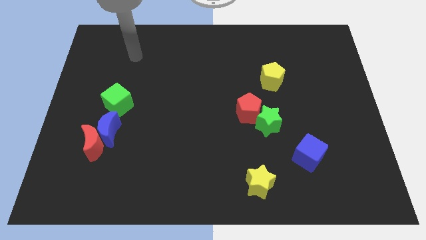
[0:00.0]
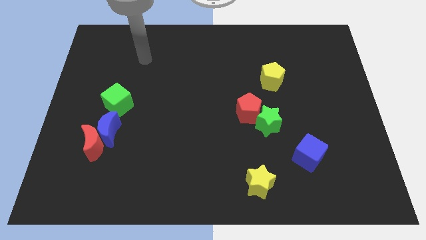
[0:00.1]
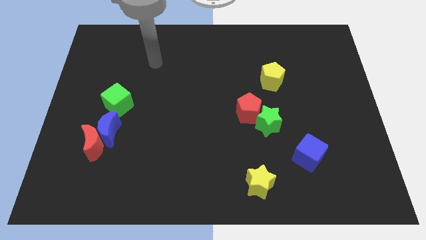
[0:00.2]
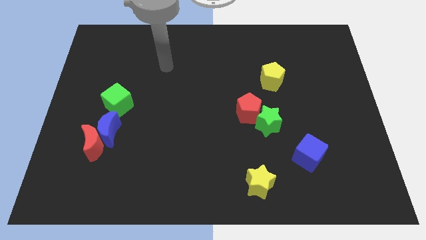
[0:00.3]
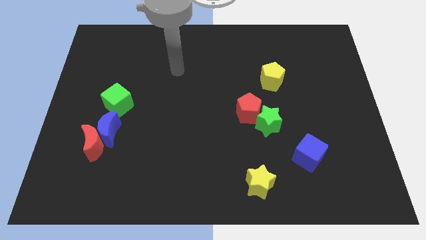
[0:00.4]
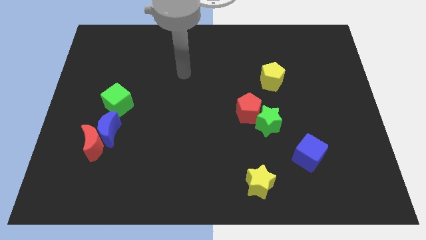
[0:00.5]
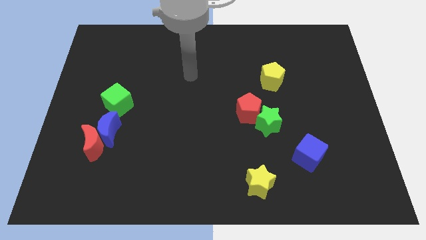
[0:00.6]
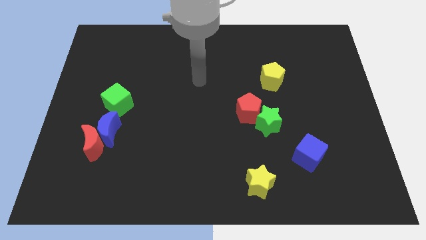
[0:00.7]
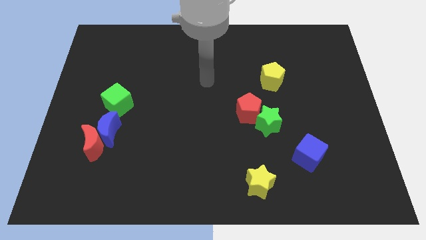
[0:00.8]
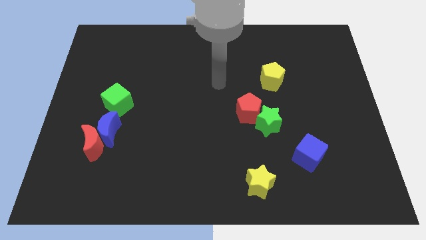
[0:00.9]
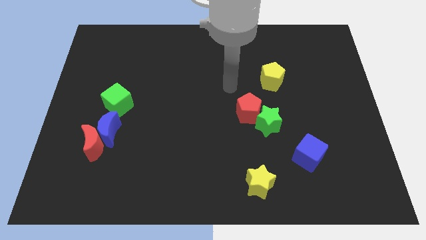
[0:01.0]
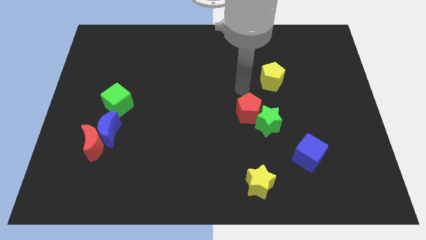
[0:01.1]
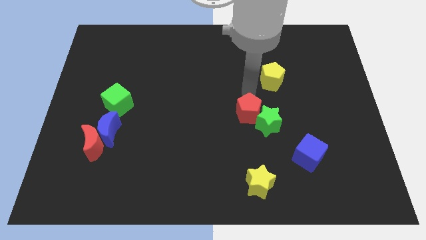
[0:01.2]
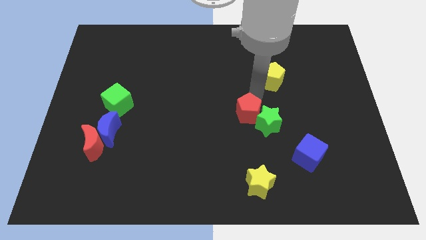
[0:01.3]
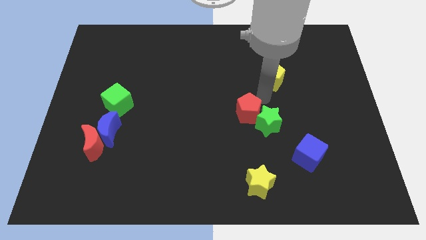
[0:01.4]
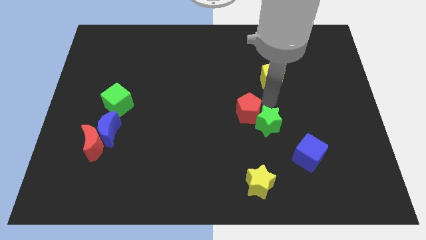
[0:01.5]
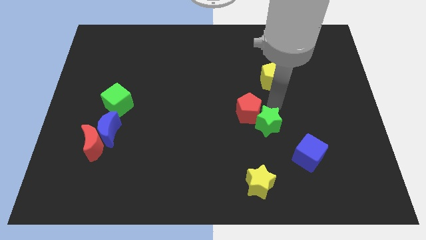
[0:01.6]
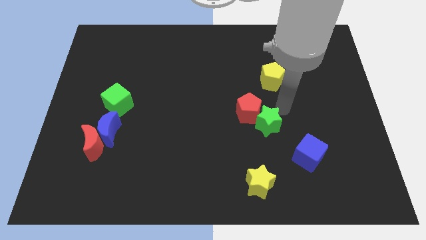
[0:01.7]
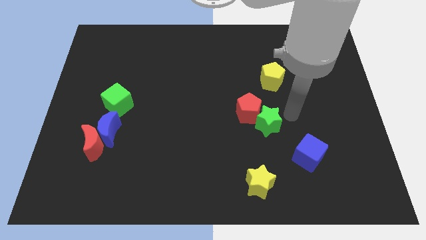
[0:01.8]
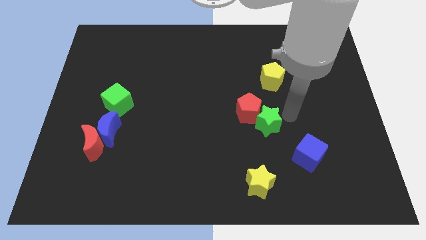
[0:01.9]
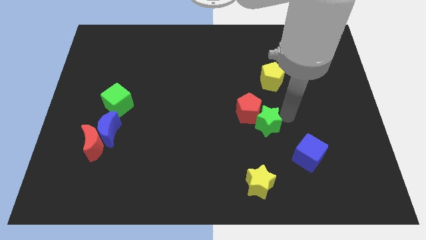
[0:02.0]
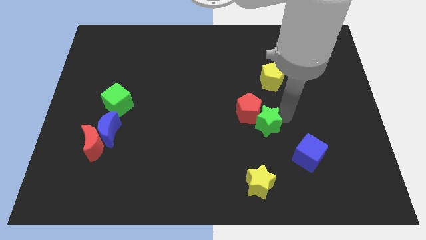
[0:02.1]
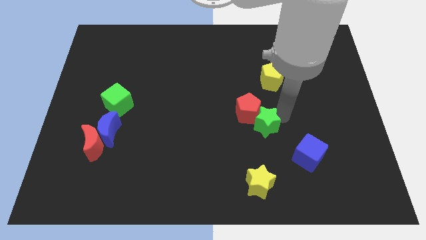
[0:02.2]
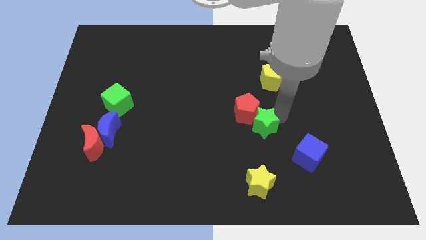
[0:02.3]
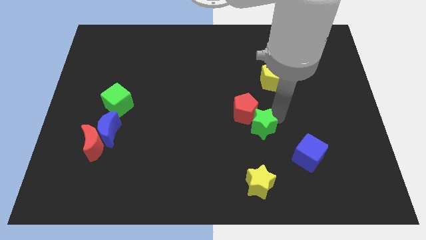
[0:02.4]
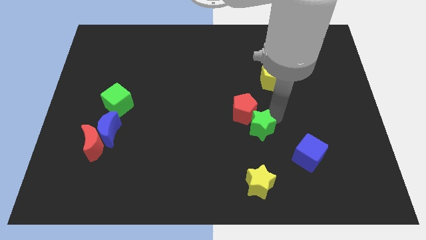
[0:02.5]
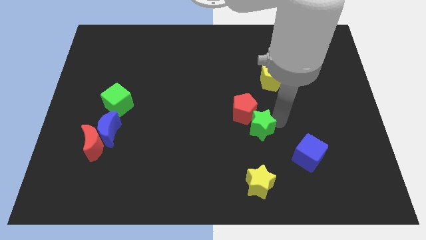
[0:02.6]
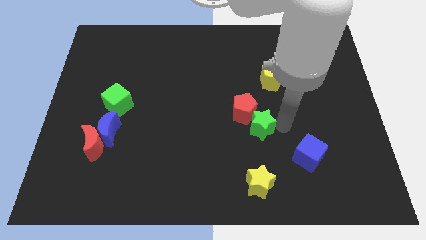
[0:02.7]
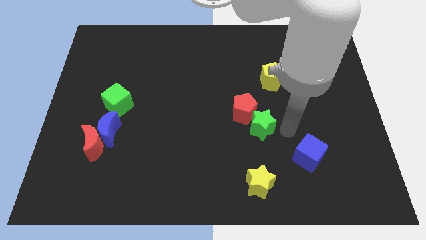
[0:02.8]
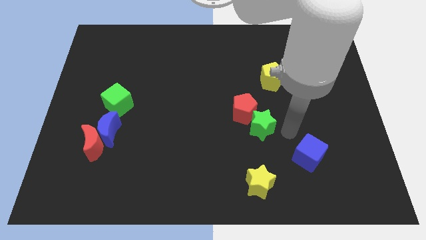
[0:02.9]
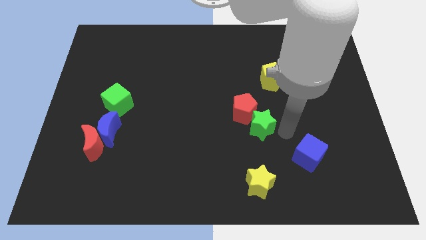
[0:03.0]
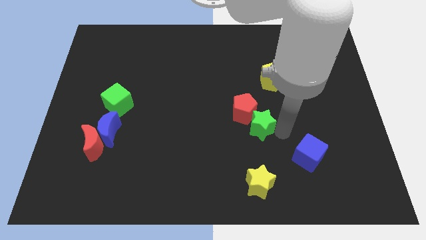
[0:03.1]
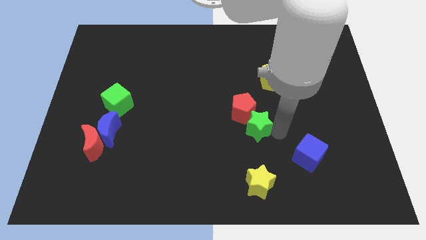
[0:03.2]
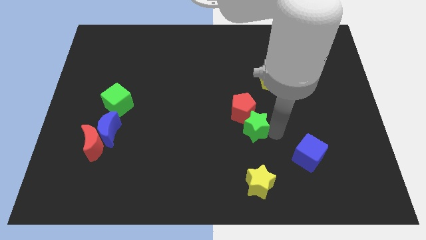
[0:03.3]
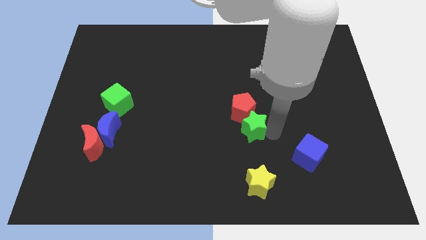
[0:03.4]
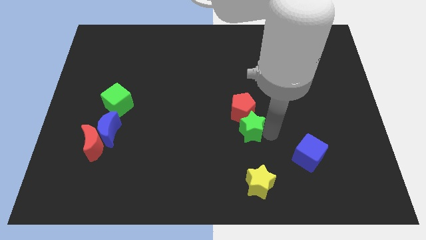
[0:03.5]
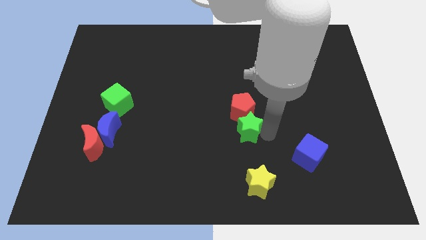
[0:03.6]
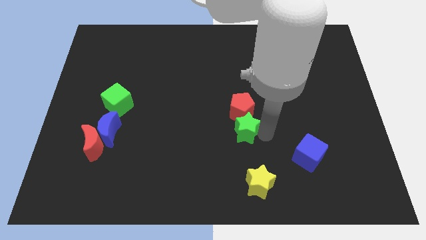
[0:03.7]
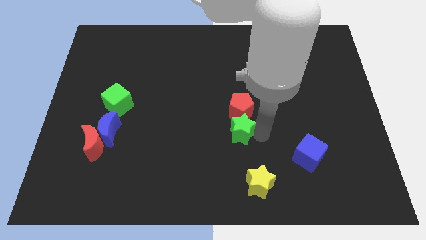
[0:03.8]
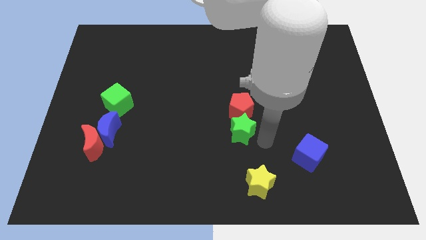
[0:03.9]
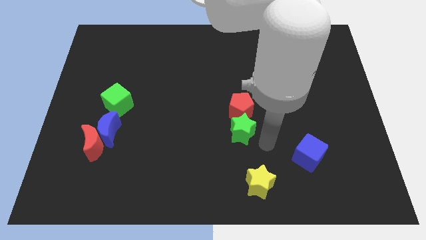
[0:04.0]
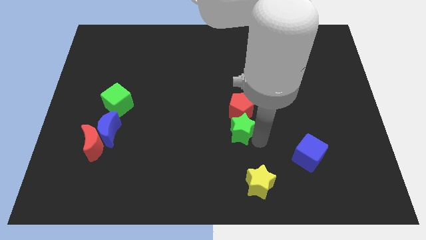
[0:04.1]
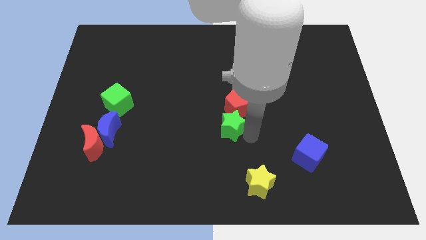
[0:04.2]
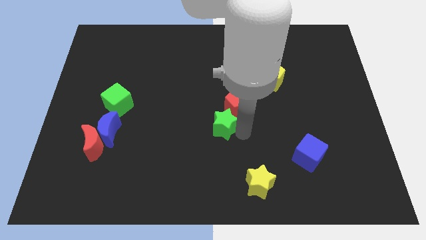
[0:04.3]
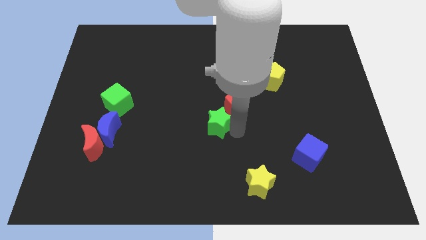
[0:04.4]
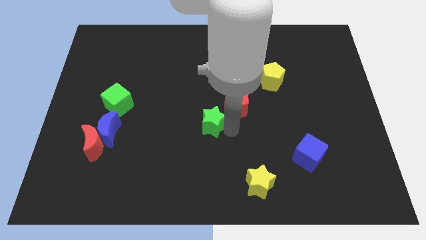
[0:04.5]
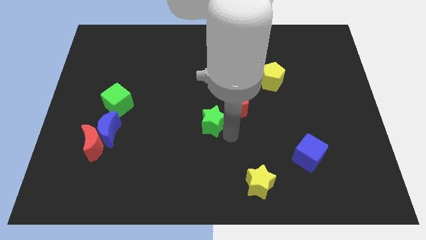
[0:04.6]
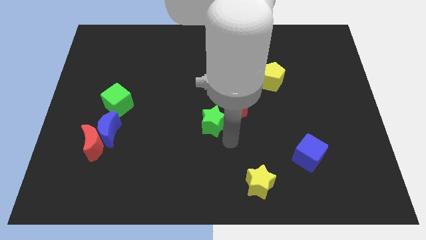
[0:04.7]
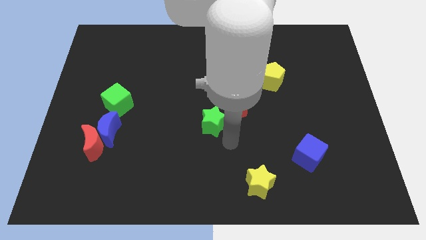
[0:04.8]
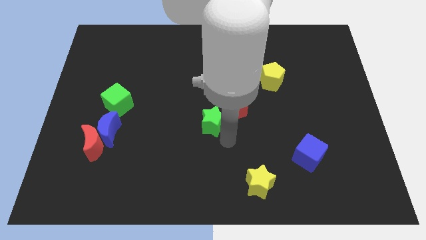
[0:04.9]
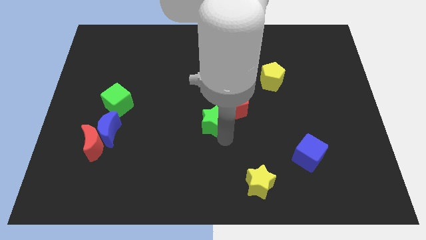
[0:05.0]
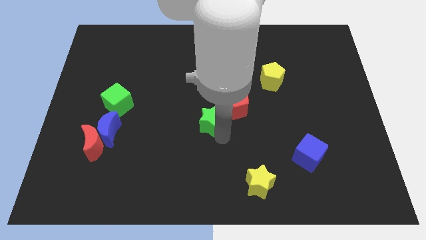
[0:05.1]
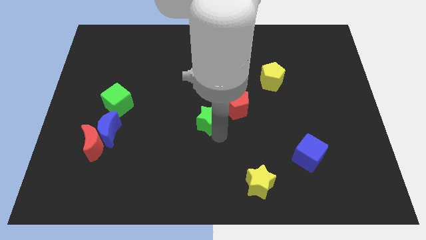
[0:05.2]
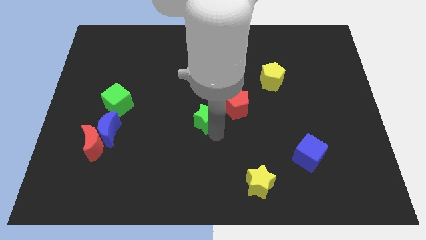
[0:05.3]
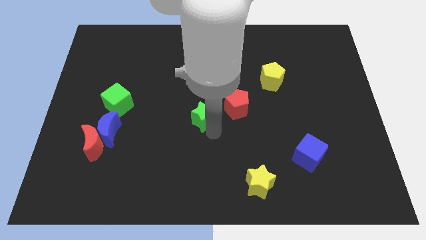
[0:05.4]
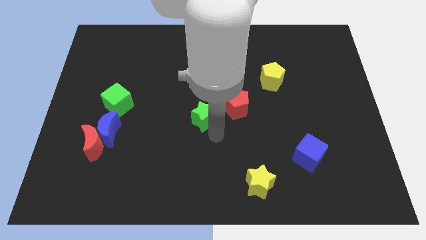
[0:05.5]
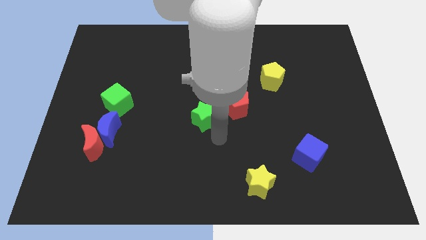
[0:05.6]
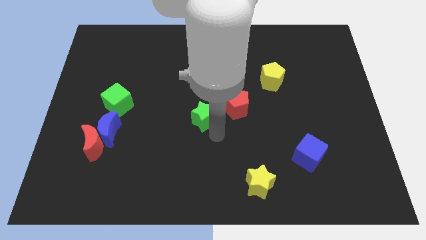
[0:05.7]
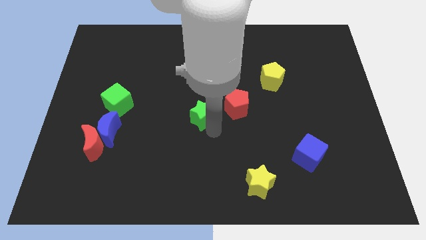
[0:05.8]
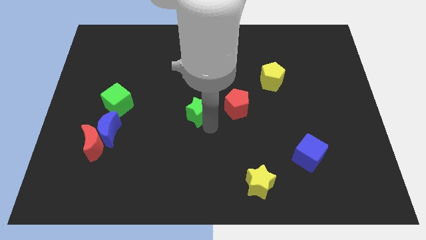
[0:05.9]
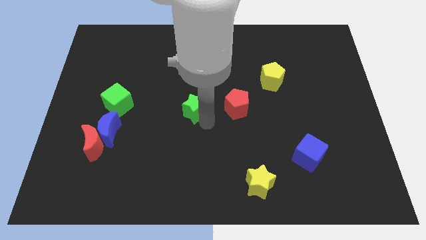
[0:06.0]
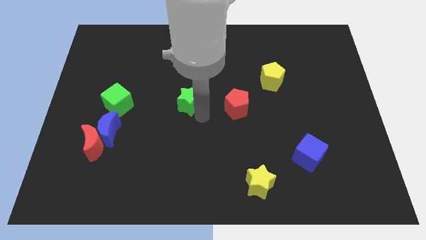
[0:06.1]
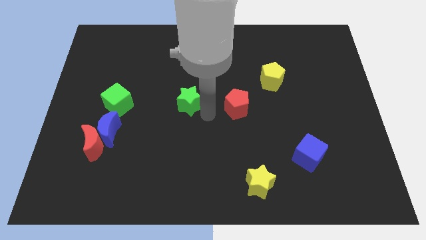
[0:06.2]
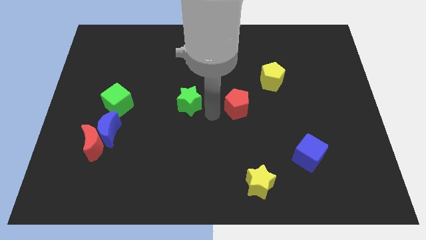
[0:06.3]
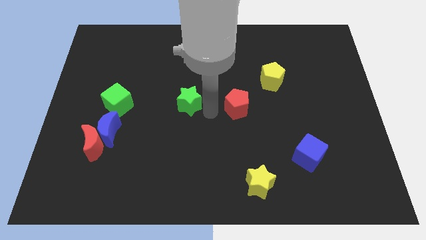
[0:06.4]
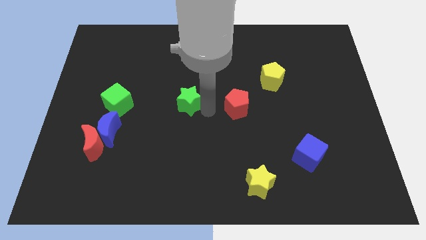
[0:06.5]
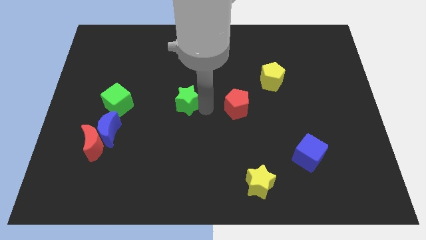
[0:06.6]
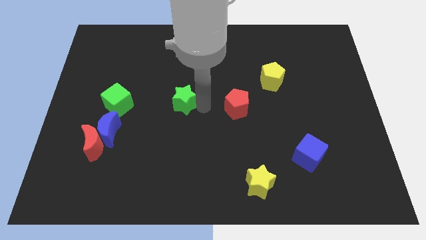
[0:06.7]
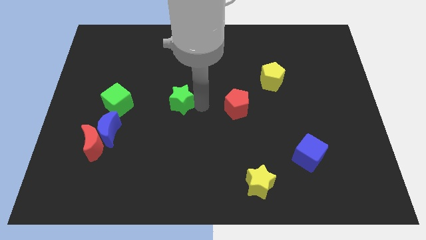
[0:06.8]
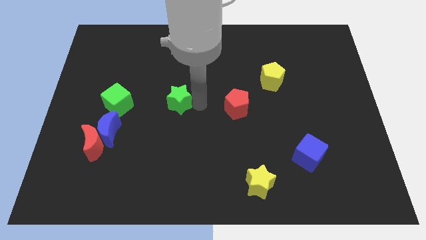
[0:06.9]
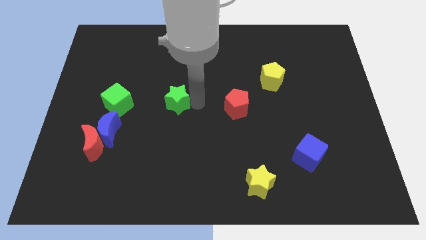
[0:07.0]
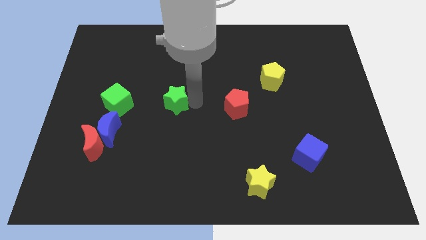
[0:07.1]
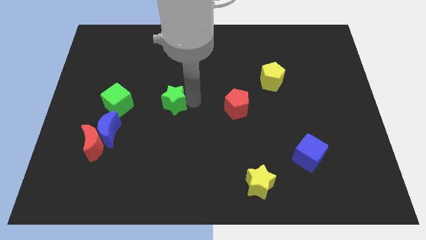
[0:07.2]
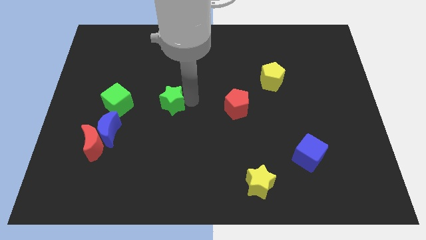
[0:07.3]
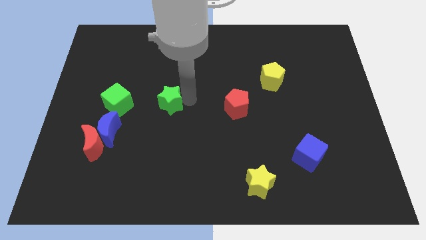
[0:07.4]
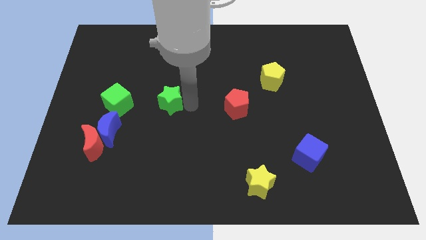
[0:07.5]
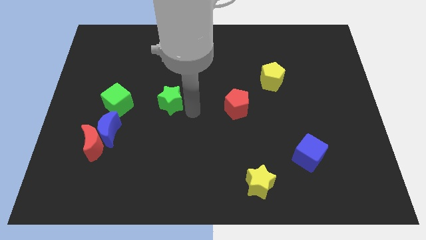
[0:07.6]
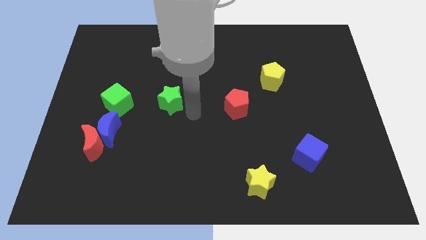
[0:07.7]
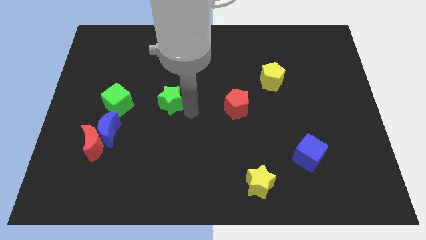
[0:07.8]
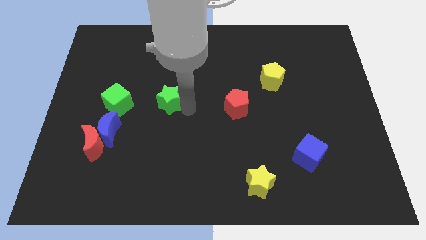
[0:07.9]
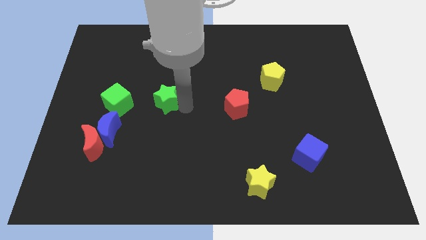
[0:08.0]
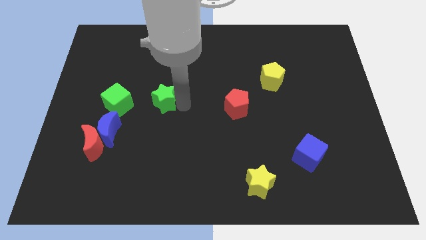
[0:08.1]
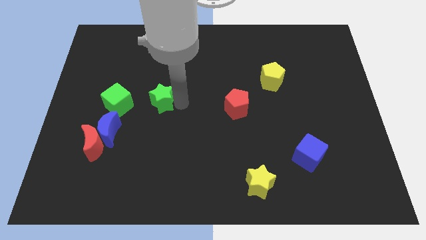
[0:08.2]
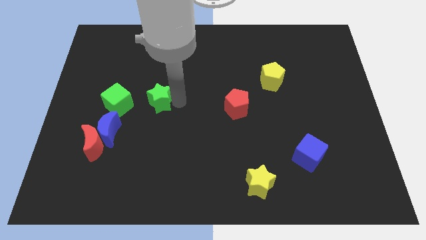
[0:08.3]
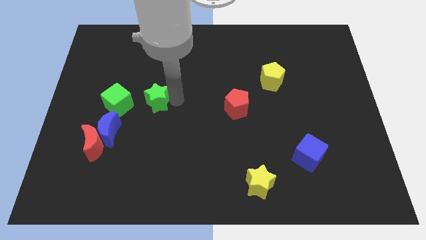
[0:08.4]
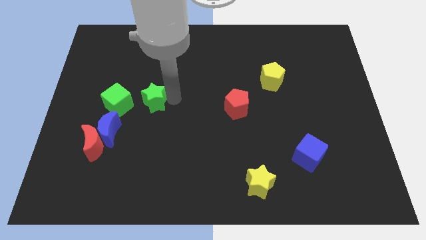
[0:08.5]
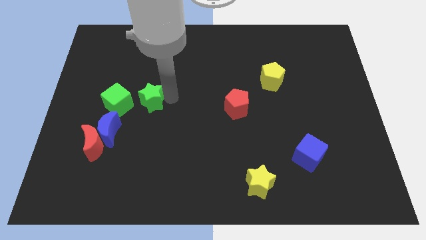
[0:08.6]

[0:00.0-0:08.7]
push the green star diagonally up and to the right of the green cube
